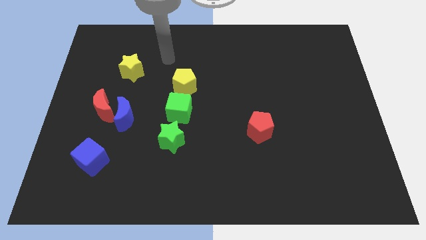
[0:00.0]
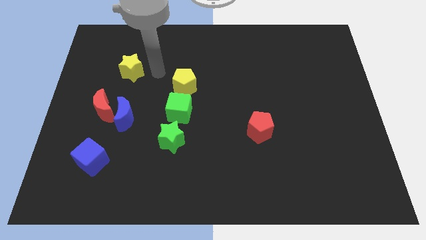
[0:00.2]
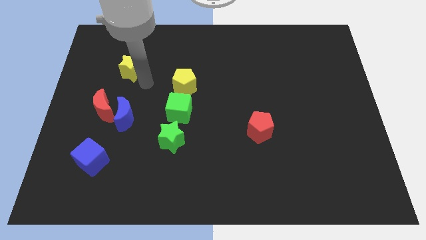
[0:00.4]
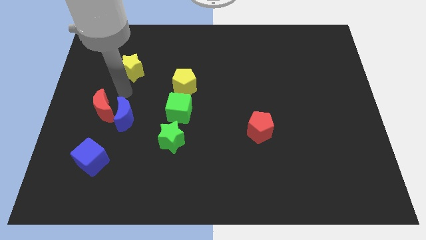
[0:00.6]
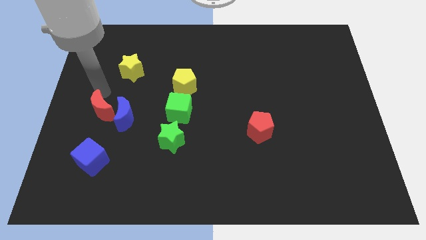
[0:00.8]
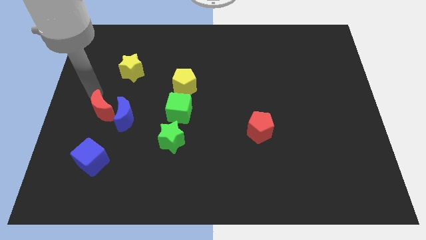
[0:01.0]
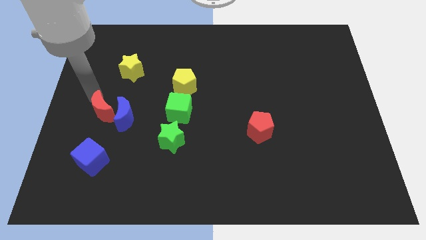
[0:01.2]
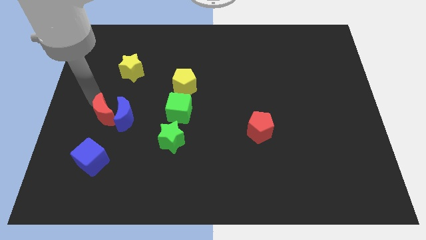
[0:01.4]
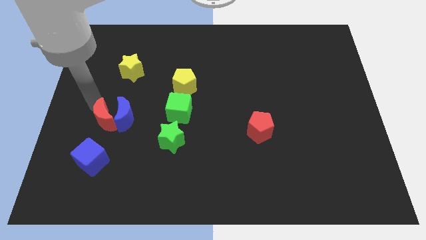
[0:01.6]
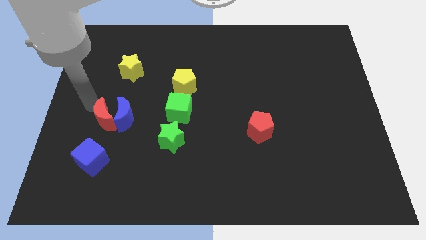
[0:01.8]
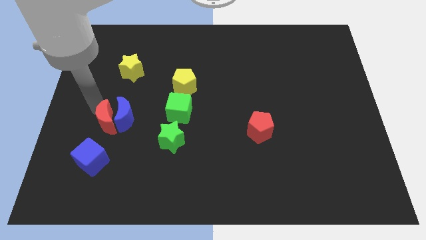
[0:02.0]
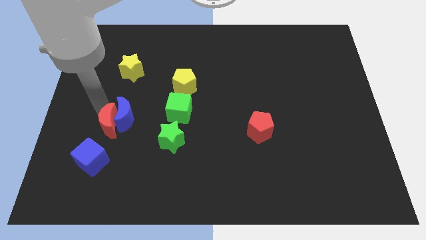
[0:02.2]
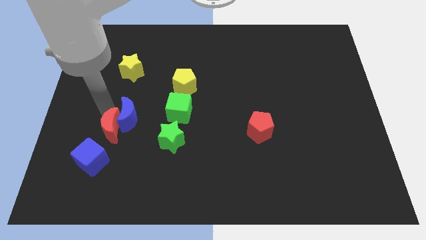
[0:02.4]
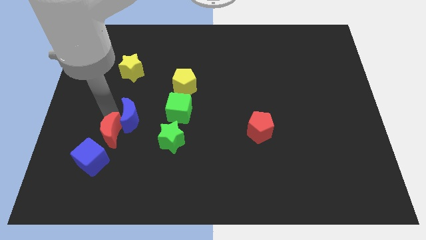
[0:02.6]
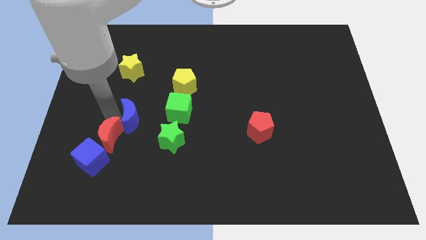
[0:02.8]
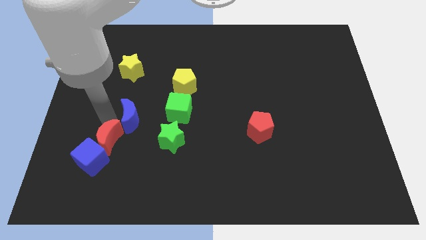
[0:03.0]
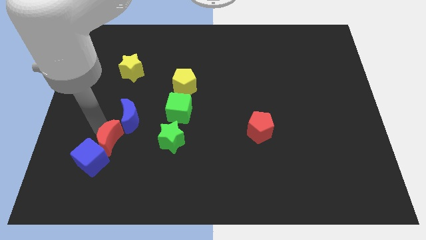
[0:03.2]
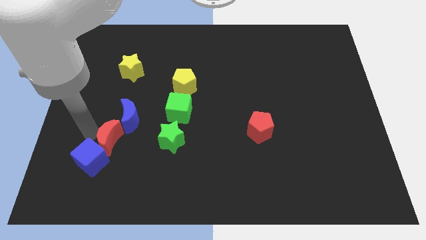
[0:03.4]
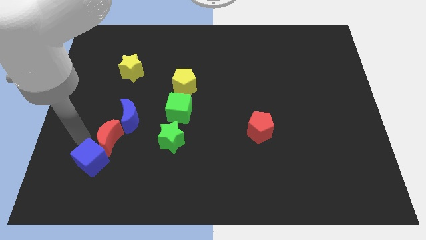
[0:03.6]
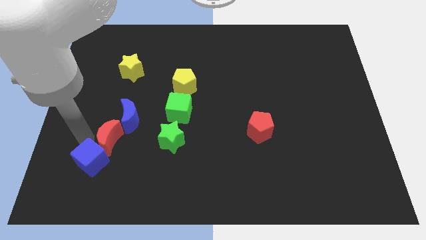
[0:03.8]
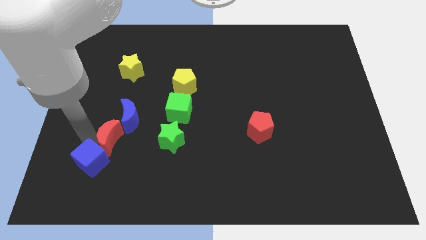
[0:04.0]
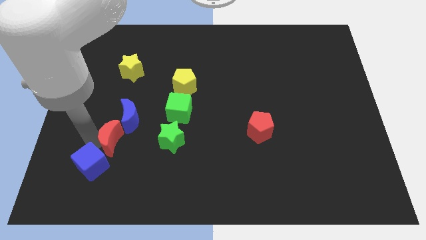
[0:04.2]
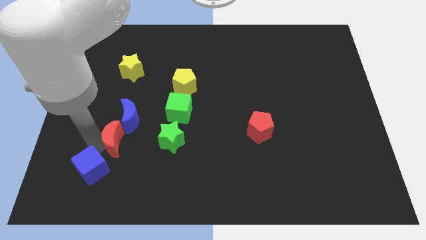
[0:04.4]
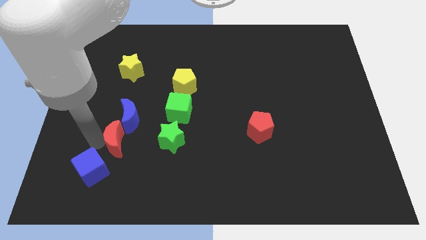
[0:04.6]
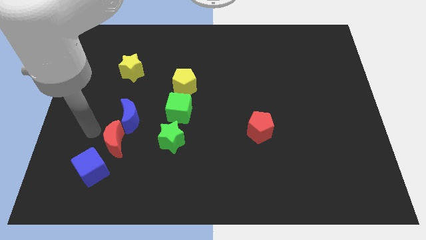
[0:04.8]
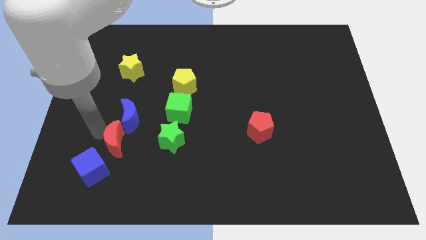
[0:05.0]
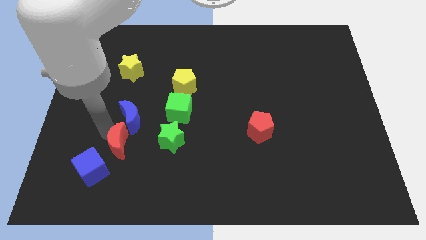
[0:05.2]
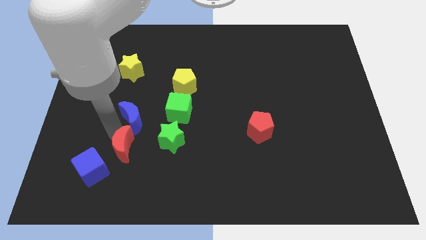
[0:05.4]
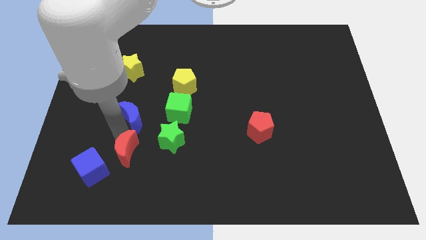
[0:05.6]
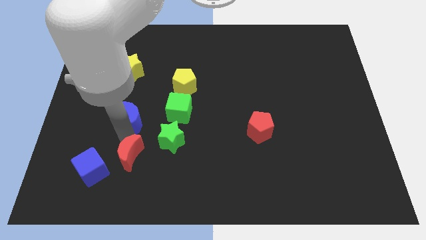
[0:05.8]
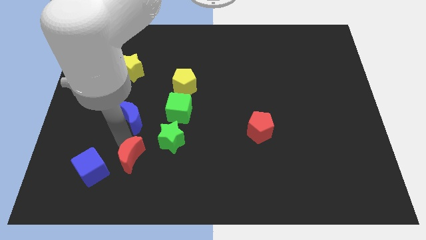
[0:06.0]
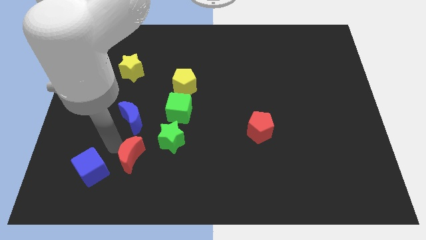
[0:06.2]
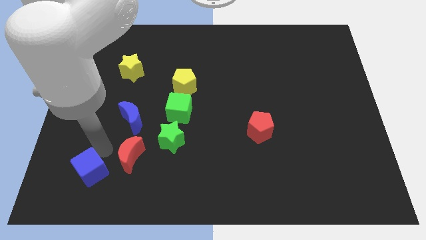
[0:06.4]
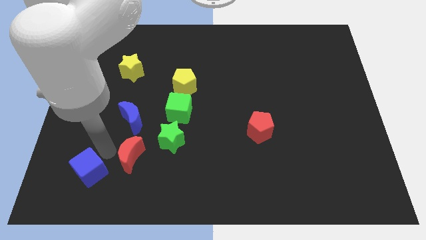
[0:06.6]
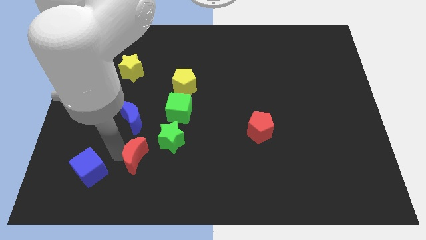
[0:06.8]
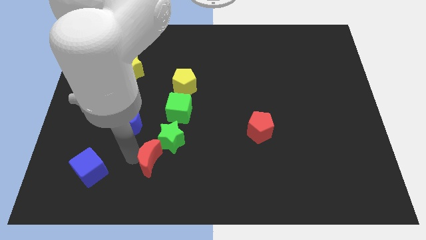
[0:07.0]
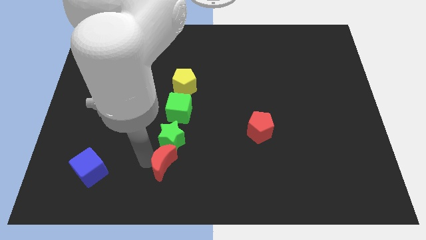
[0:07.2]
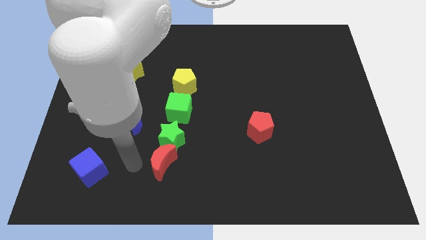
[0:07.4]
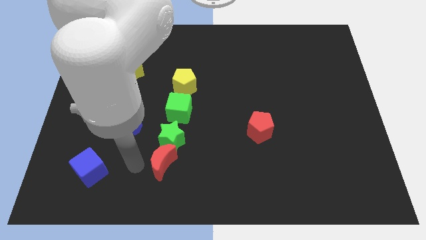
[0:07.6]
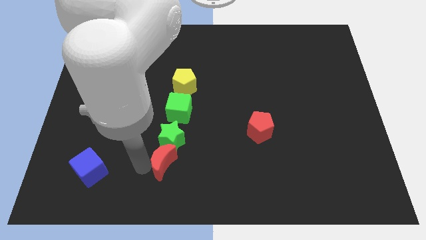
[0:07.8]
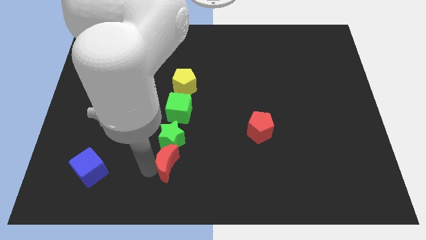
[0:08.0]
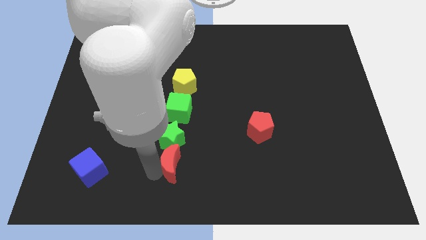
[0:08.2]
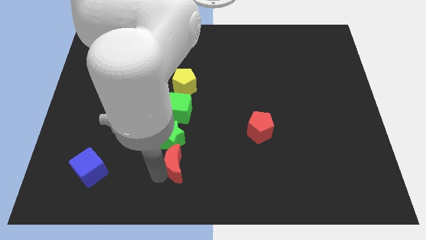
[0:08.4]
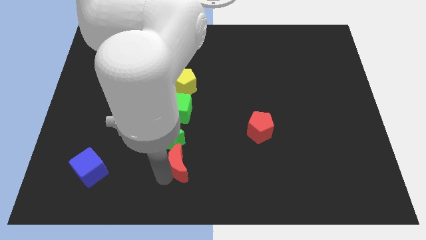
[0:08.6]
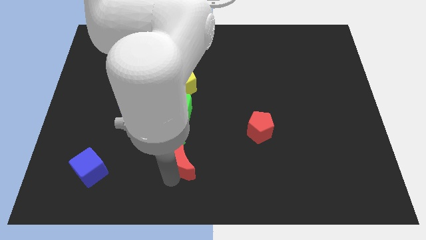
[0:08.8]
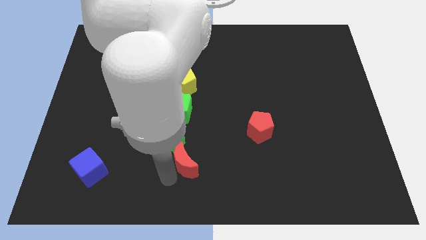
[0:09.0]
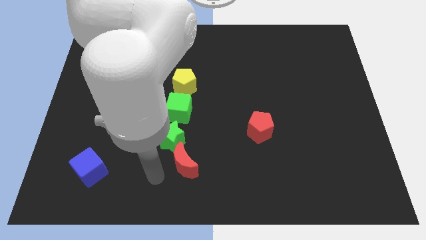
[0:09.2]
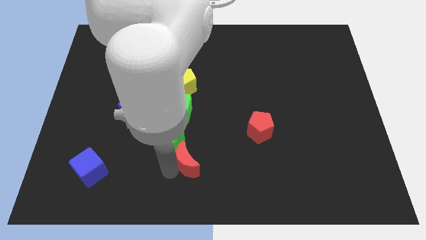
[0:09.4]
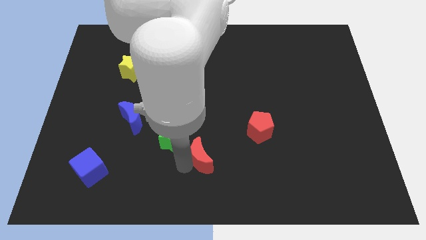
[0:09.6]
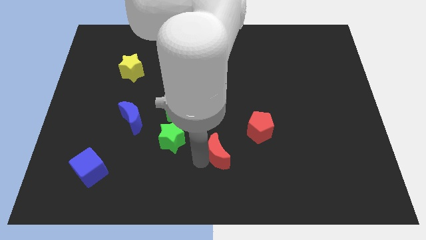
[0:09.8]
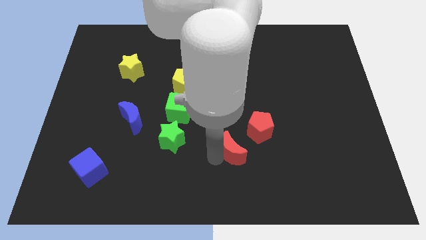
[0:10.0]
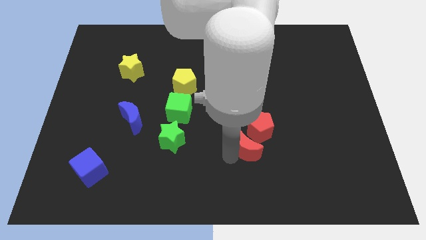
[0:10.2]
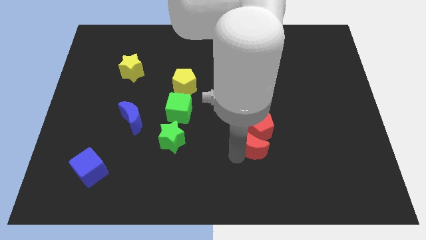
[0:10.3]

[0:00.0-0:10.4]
move the red moon next to the red pentagon

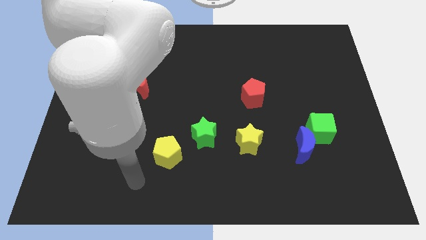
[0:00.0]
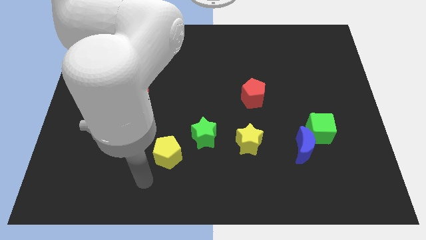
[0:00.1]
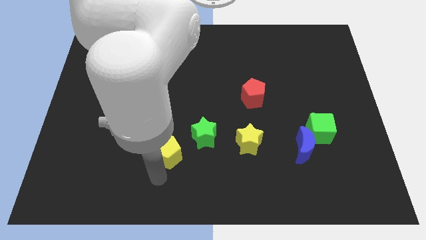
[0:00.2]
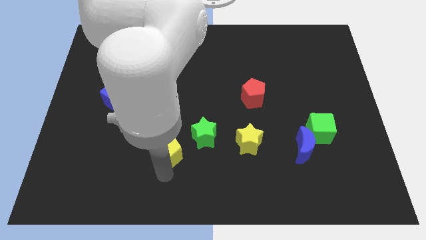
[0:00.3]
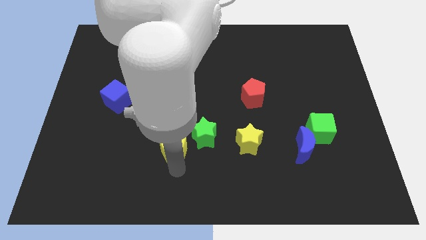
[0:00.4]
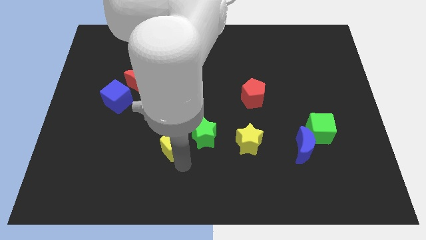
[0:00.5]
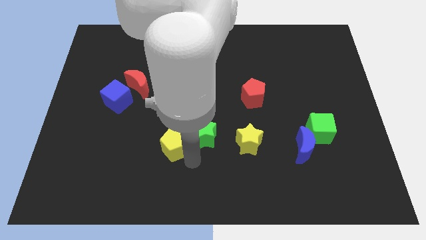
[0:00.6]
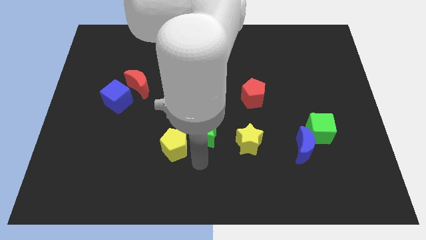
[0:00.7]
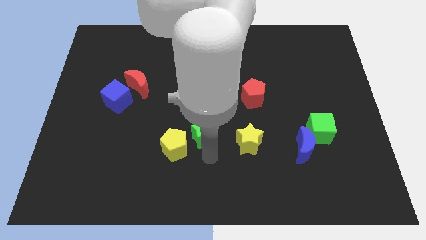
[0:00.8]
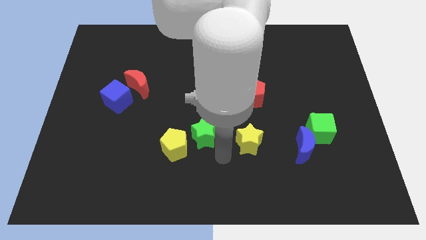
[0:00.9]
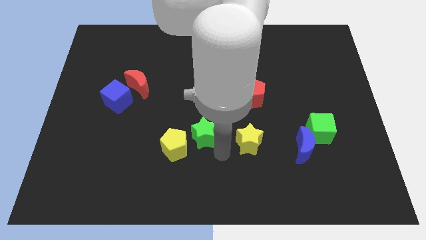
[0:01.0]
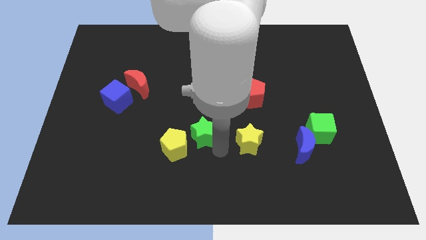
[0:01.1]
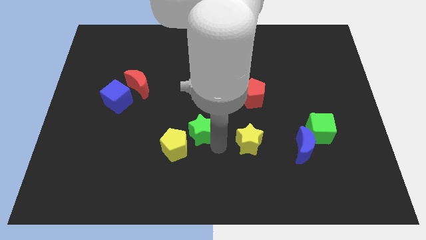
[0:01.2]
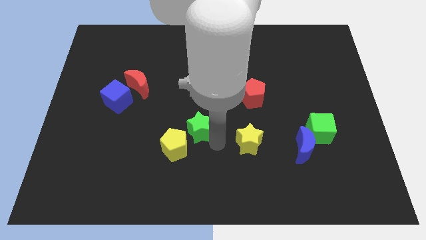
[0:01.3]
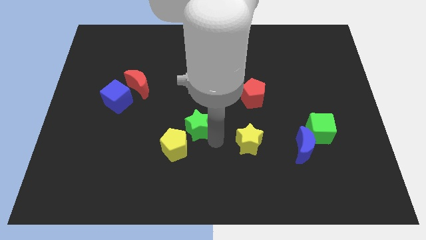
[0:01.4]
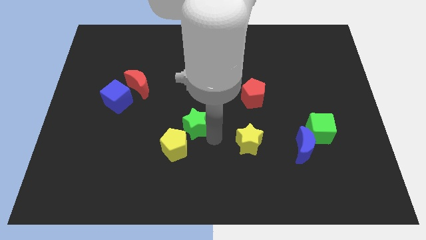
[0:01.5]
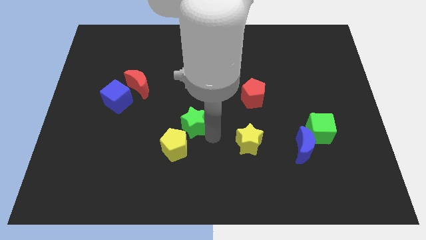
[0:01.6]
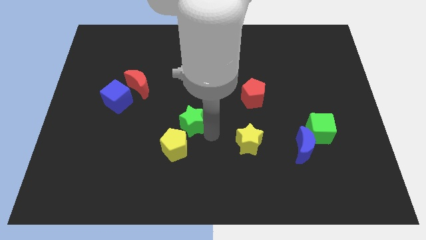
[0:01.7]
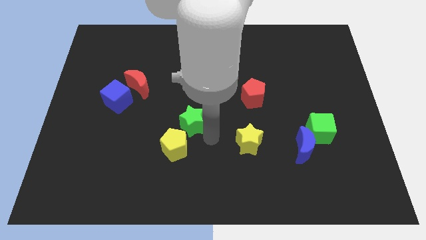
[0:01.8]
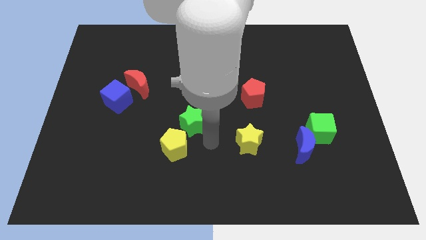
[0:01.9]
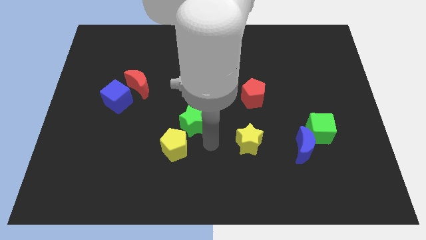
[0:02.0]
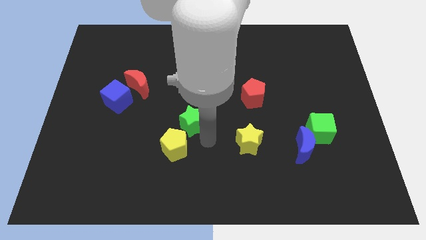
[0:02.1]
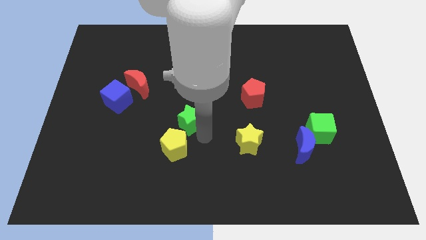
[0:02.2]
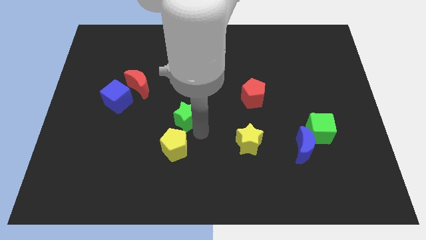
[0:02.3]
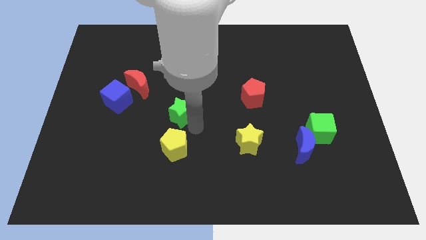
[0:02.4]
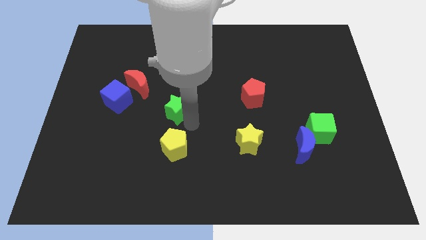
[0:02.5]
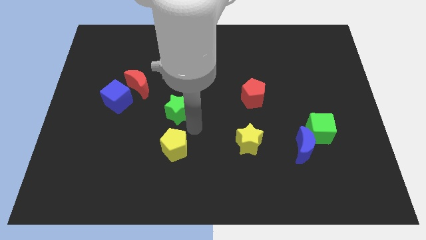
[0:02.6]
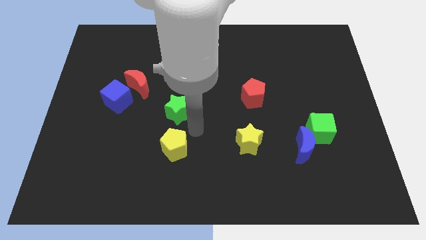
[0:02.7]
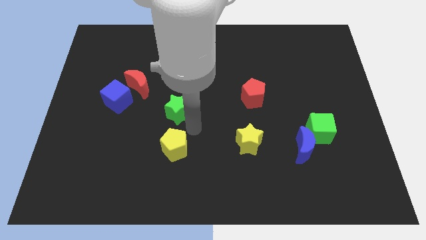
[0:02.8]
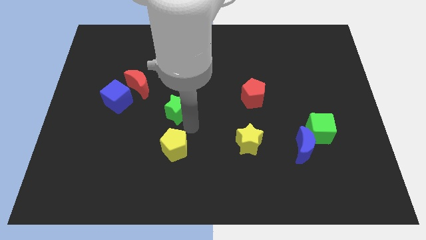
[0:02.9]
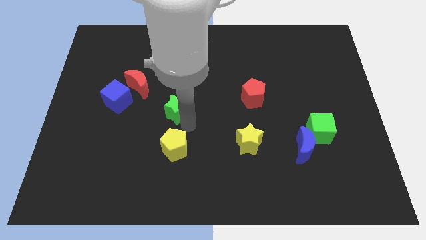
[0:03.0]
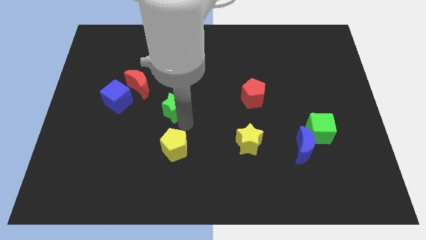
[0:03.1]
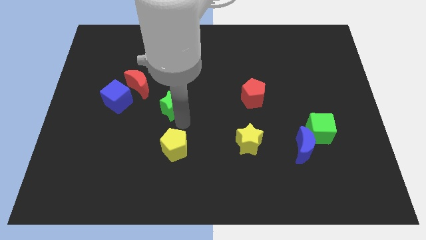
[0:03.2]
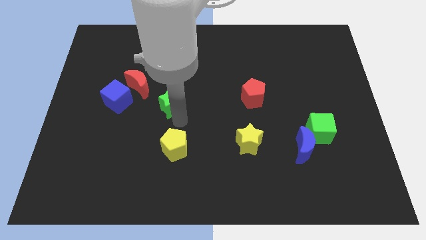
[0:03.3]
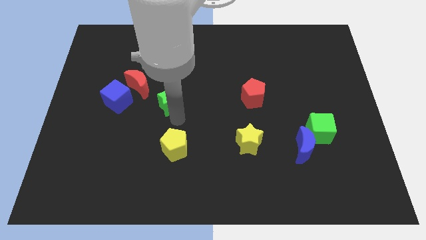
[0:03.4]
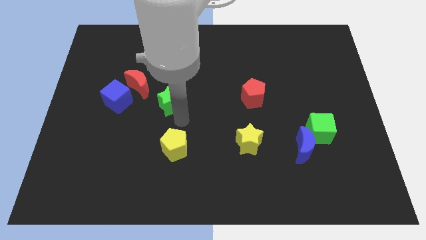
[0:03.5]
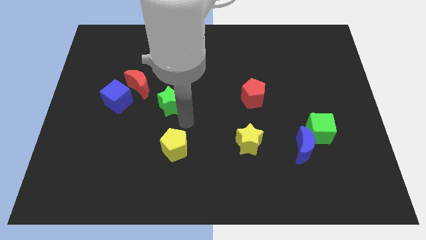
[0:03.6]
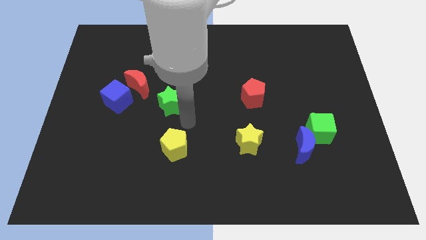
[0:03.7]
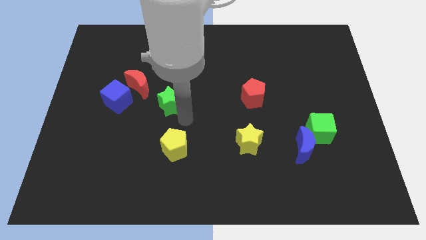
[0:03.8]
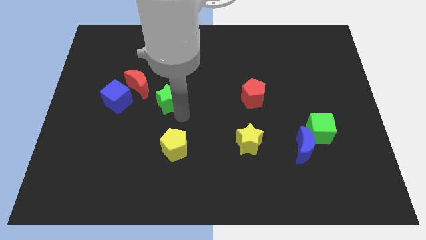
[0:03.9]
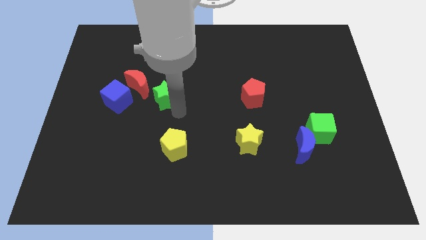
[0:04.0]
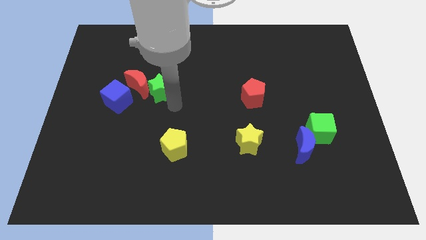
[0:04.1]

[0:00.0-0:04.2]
move the green star to the red moon
